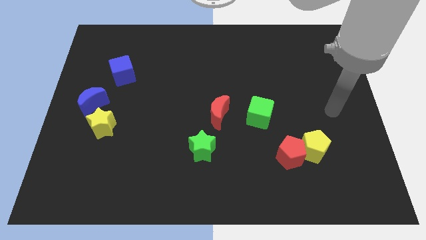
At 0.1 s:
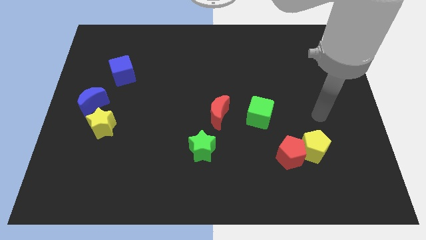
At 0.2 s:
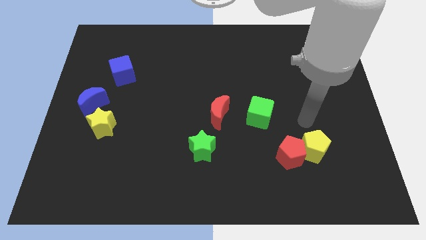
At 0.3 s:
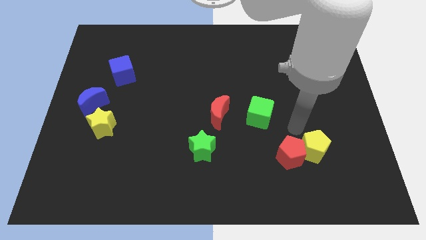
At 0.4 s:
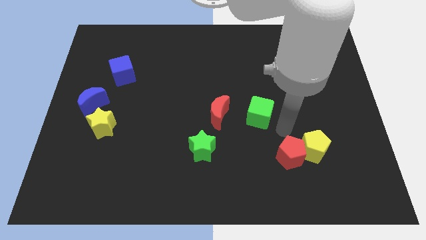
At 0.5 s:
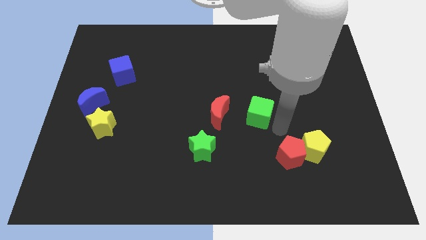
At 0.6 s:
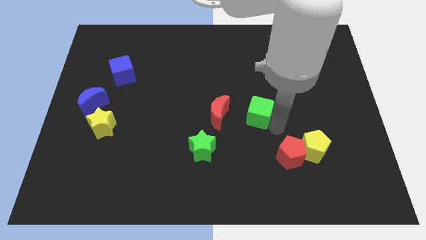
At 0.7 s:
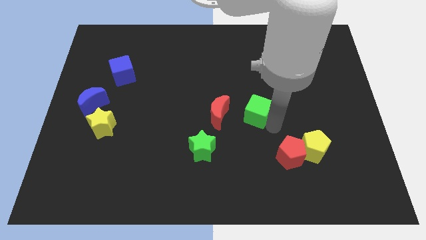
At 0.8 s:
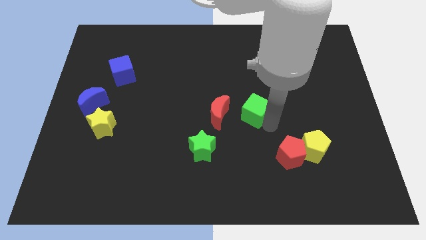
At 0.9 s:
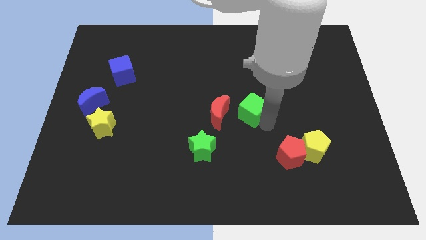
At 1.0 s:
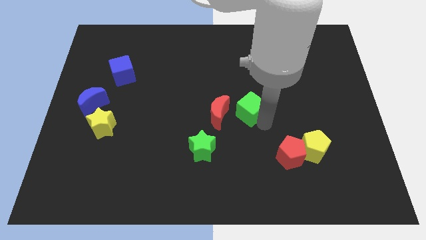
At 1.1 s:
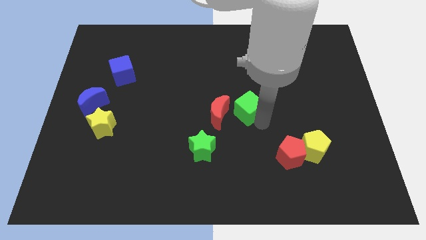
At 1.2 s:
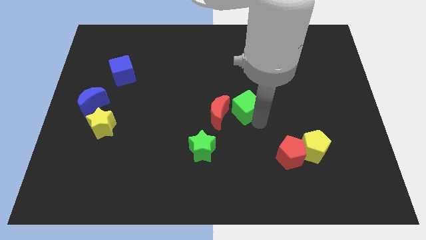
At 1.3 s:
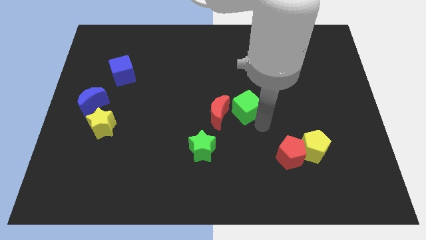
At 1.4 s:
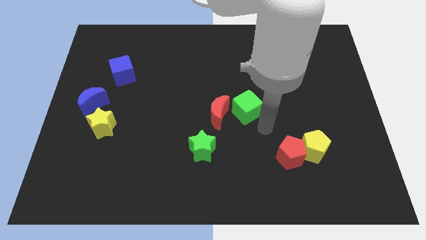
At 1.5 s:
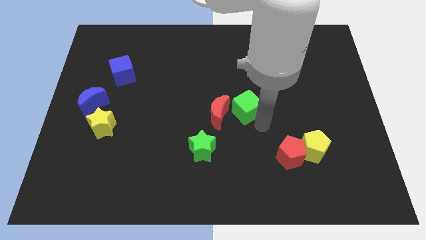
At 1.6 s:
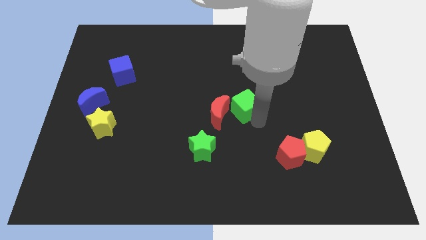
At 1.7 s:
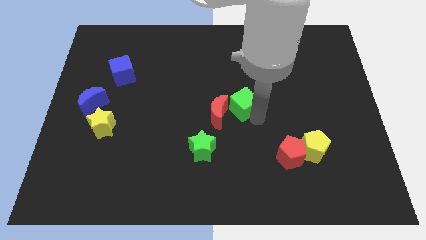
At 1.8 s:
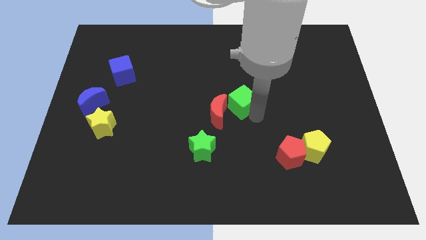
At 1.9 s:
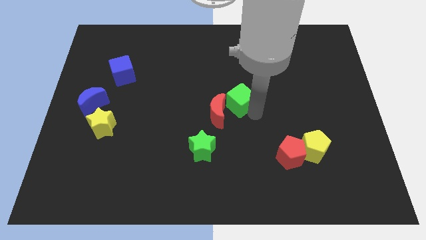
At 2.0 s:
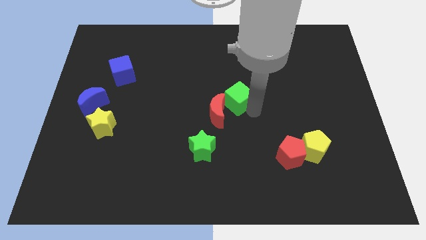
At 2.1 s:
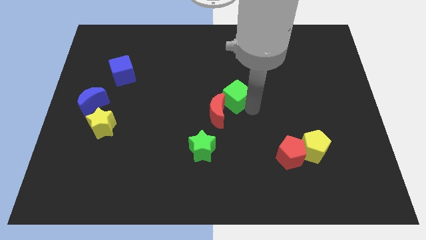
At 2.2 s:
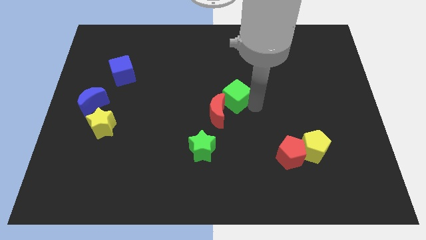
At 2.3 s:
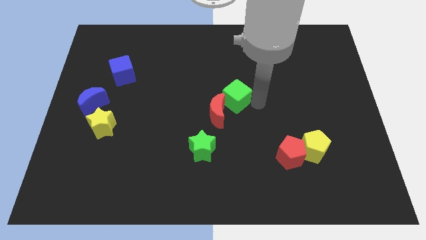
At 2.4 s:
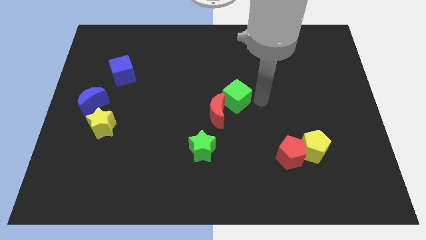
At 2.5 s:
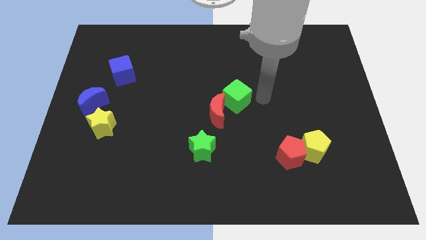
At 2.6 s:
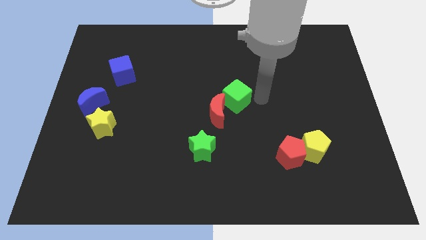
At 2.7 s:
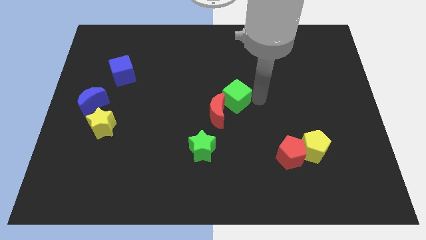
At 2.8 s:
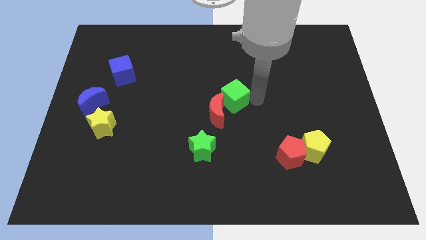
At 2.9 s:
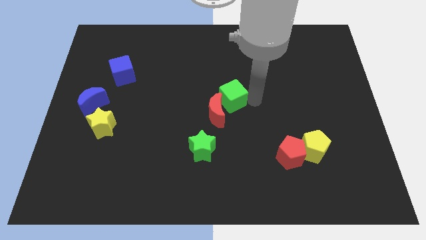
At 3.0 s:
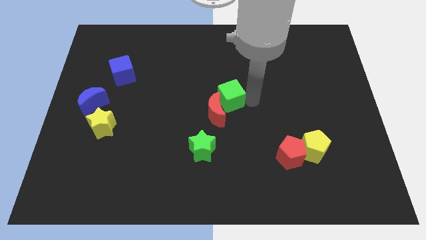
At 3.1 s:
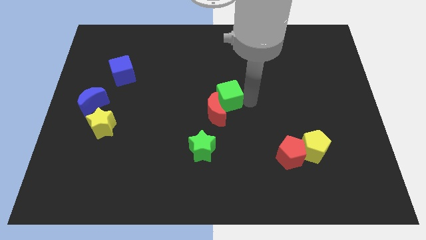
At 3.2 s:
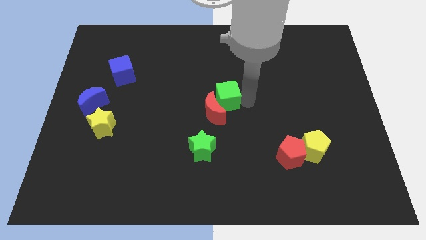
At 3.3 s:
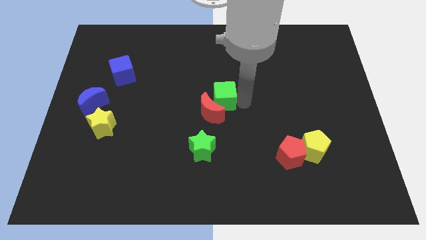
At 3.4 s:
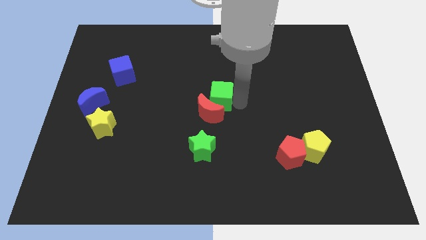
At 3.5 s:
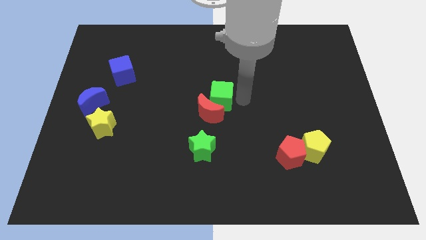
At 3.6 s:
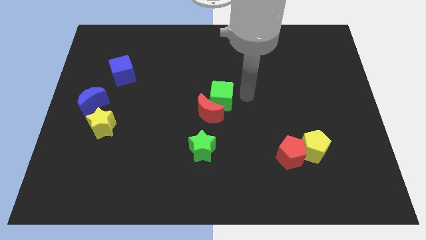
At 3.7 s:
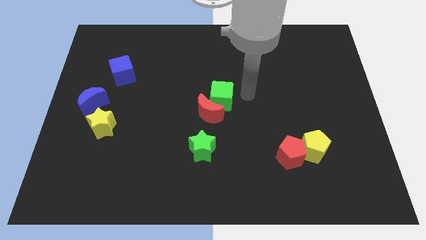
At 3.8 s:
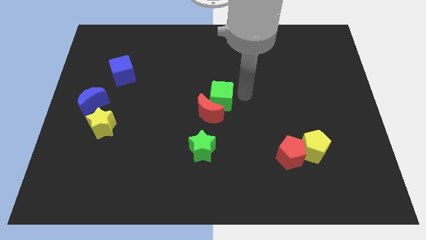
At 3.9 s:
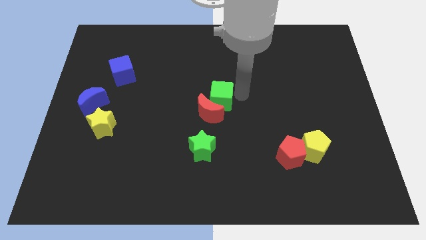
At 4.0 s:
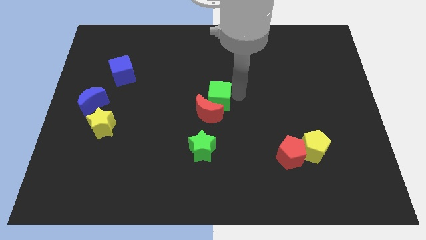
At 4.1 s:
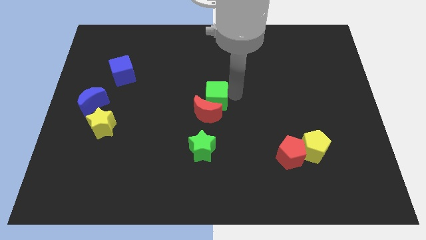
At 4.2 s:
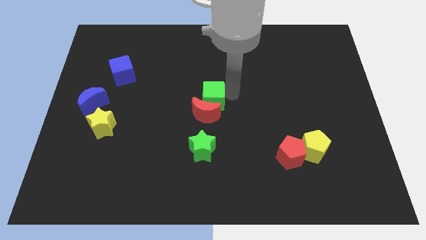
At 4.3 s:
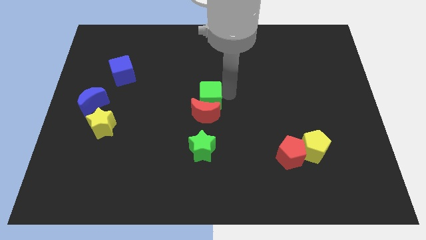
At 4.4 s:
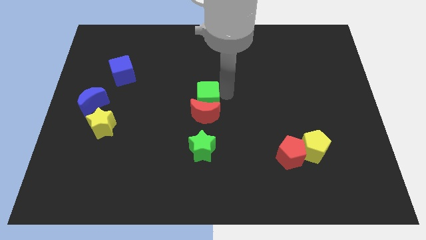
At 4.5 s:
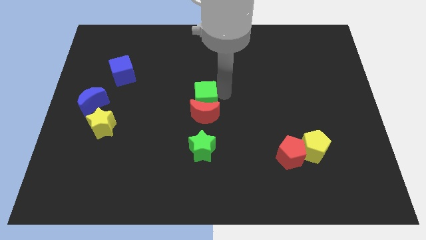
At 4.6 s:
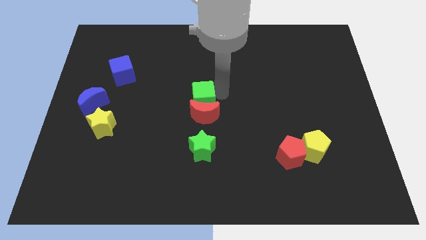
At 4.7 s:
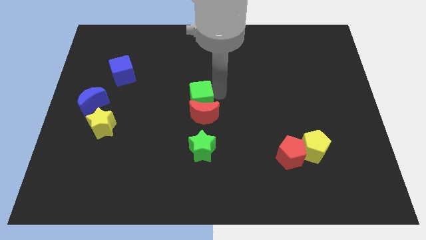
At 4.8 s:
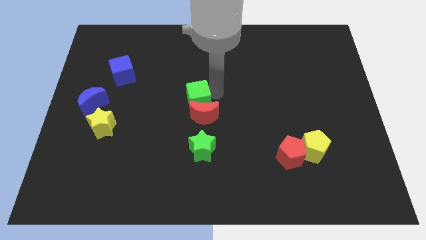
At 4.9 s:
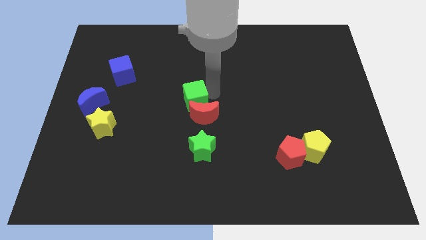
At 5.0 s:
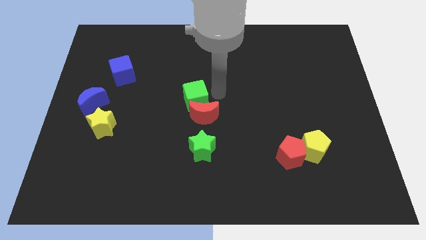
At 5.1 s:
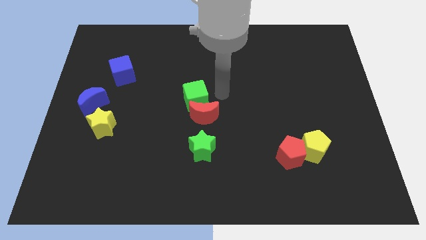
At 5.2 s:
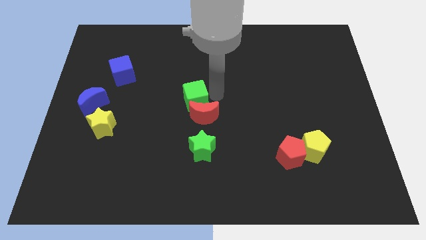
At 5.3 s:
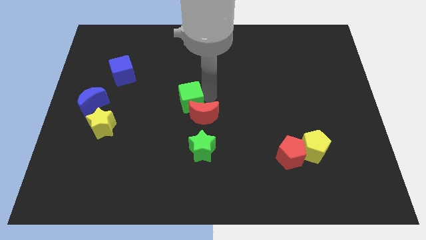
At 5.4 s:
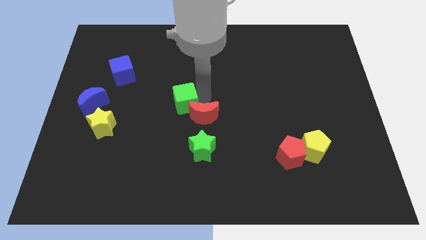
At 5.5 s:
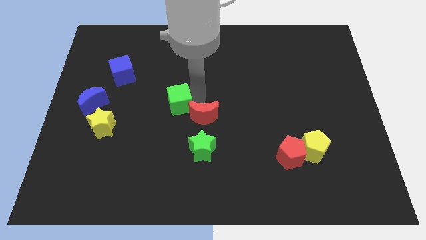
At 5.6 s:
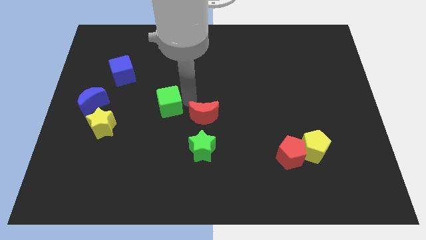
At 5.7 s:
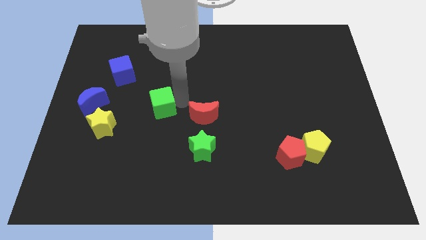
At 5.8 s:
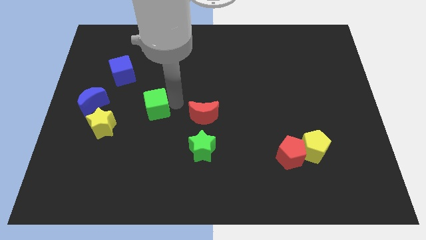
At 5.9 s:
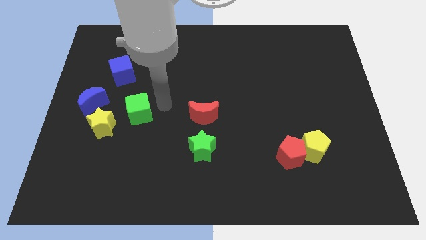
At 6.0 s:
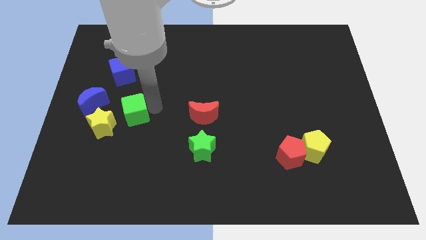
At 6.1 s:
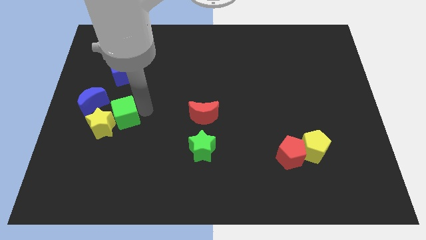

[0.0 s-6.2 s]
slide the green cube towards the yellow star
